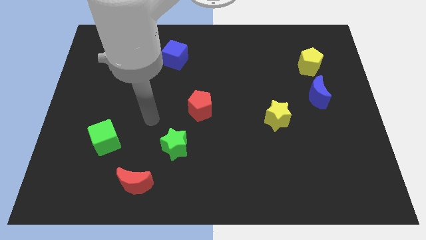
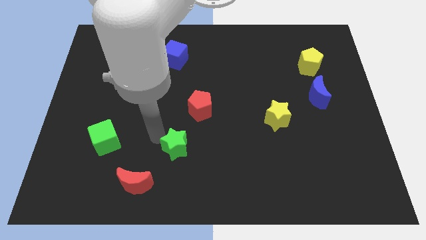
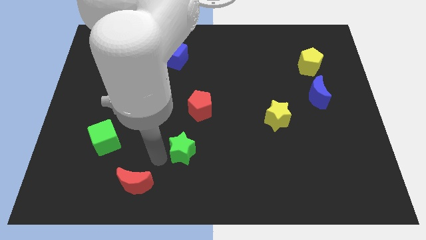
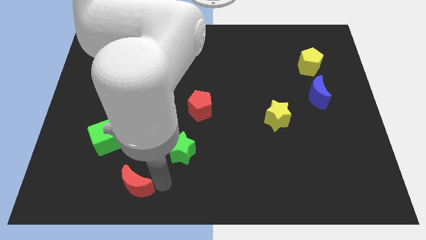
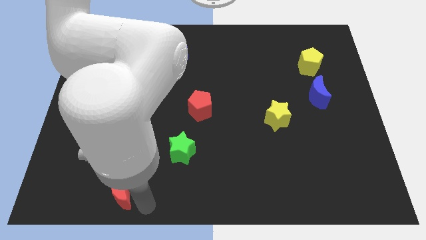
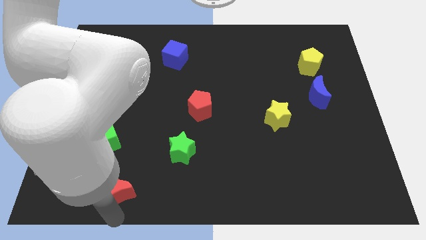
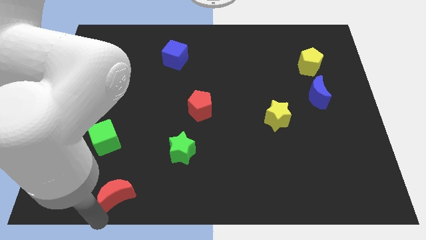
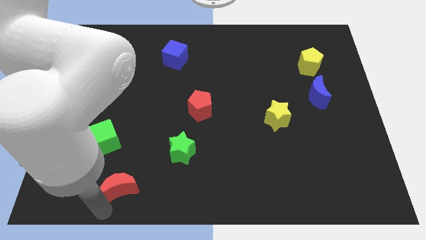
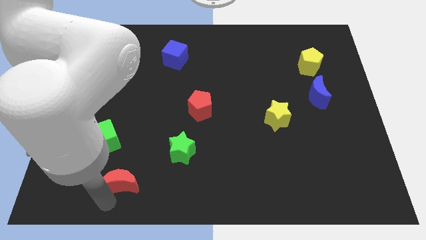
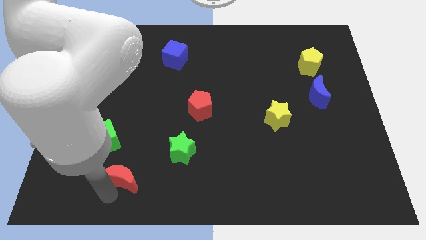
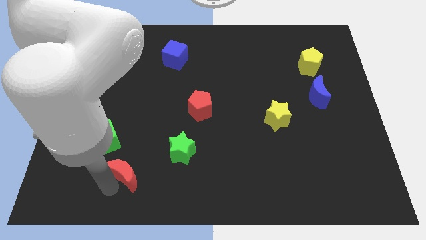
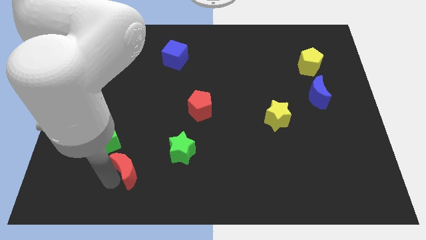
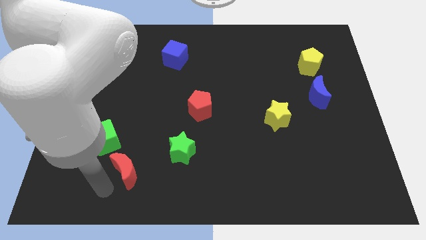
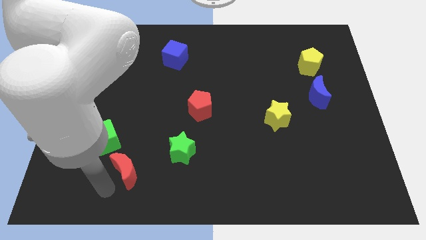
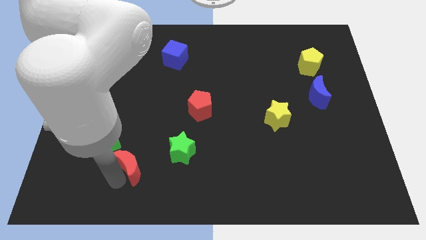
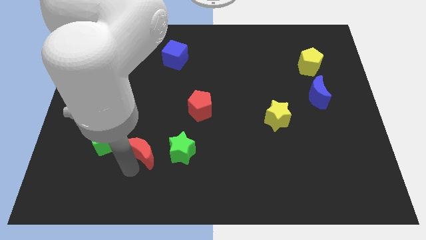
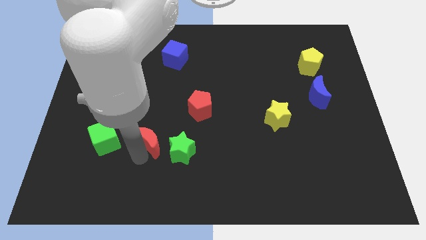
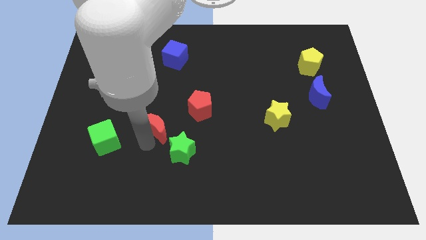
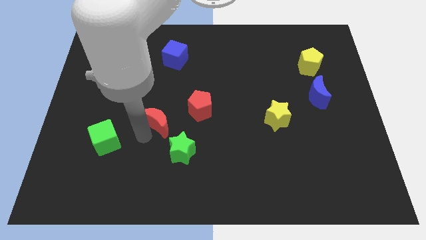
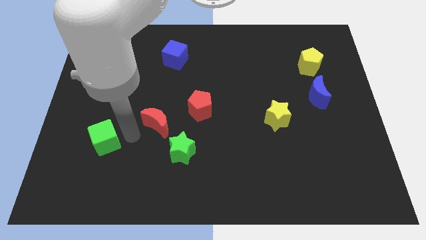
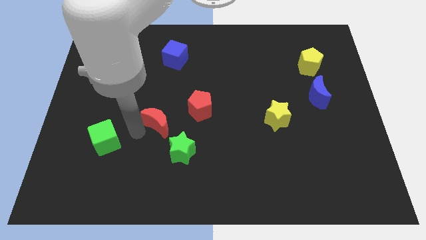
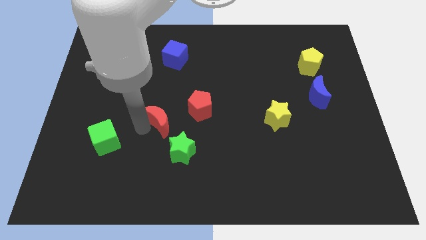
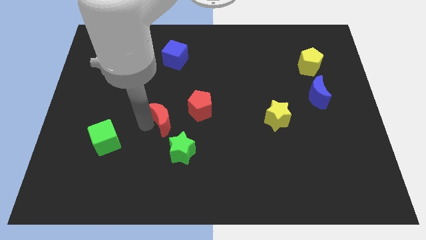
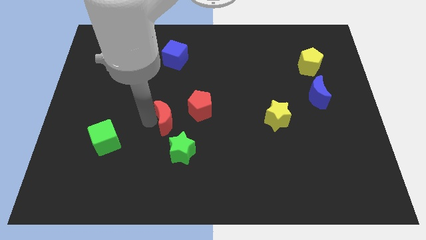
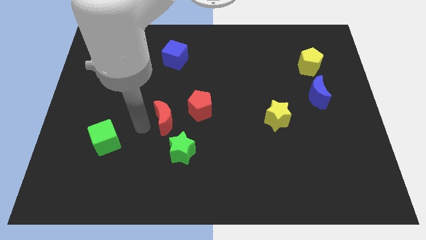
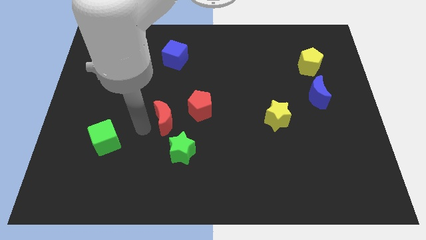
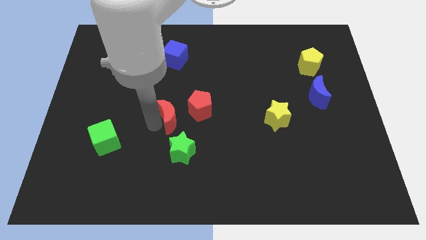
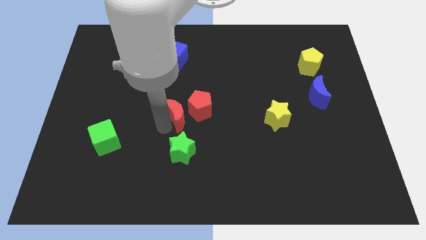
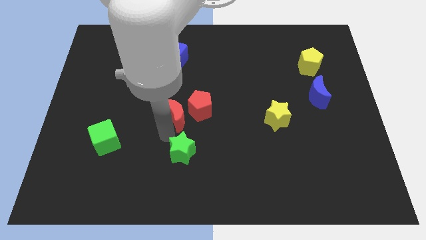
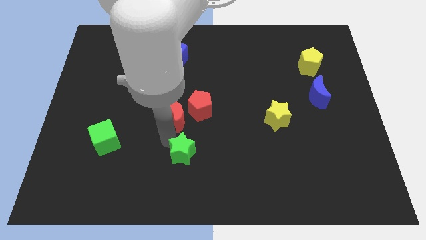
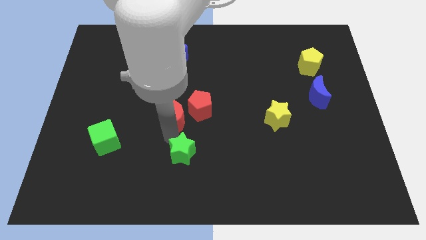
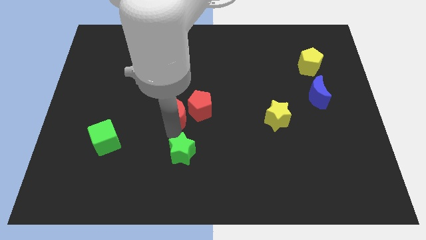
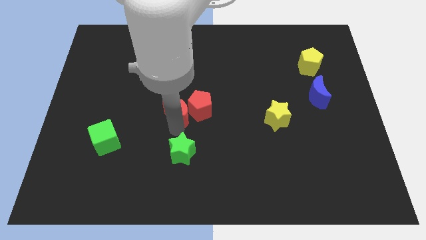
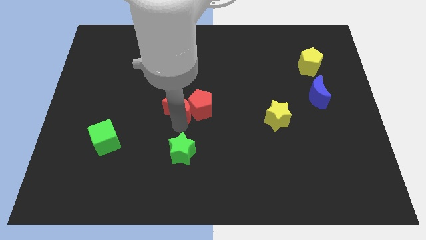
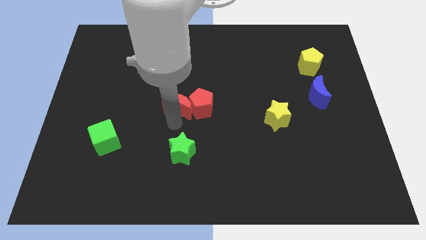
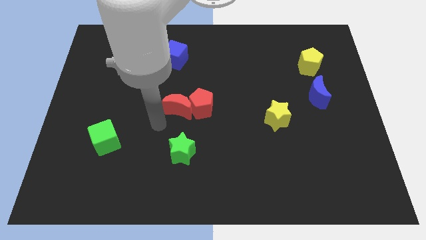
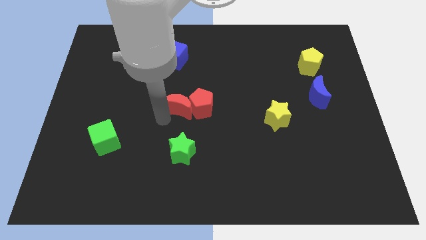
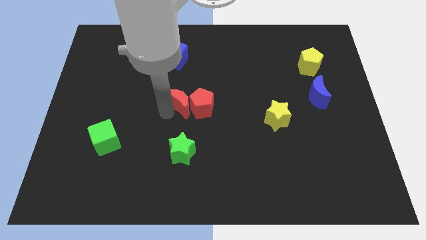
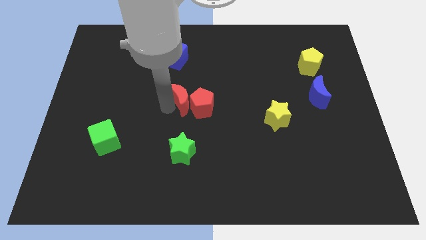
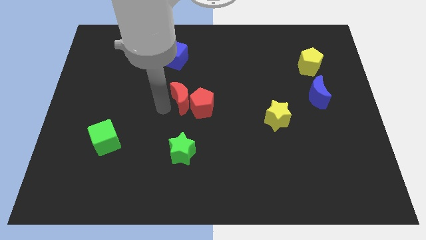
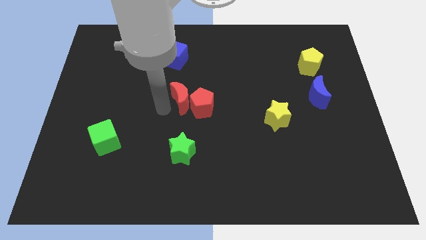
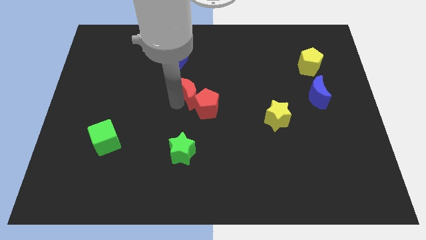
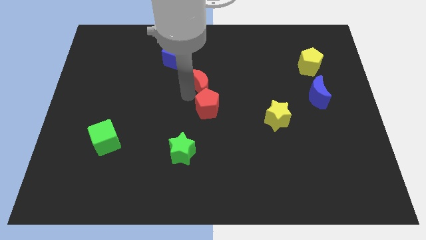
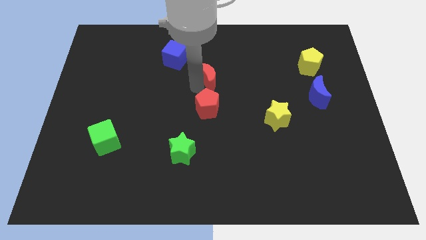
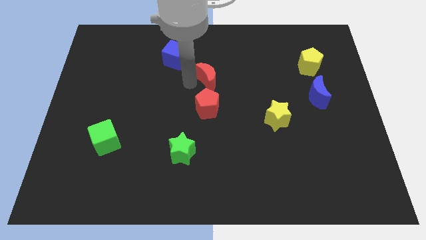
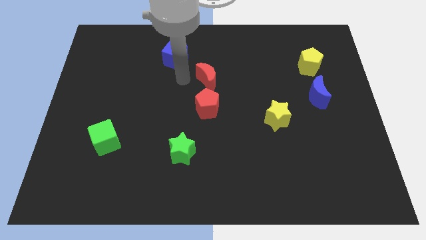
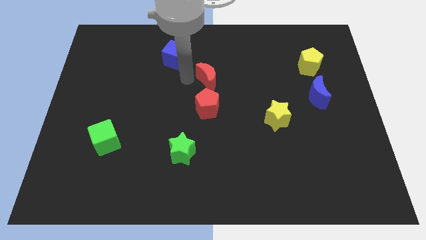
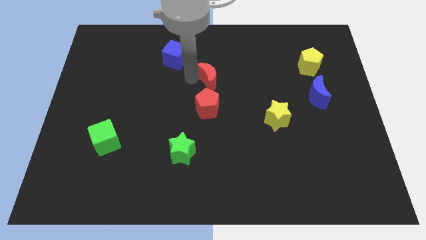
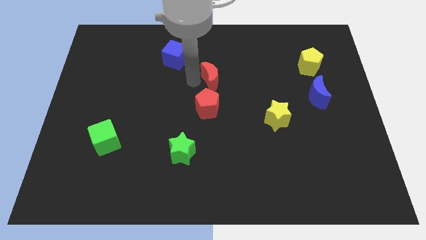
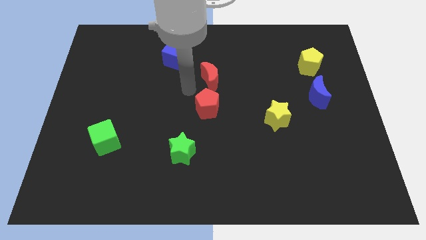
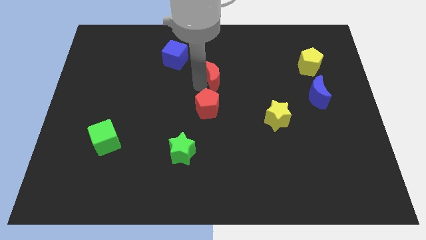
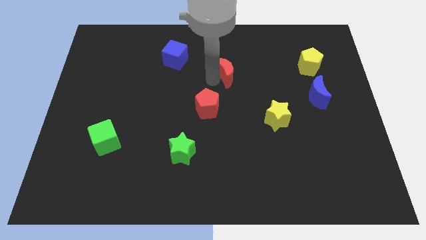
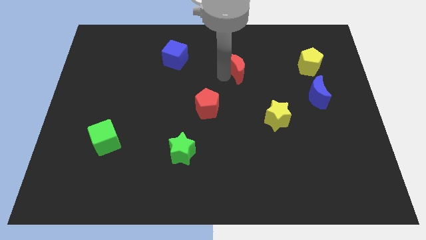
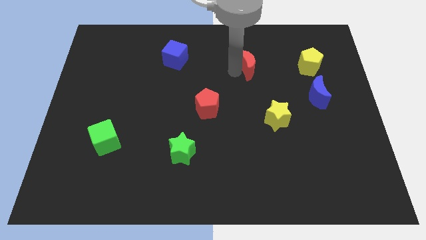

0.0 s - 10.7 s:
slide the red moon just left of the yellow pentagon

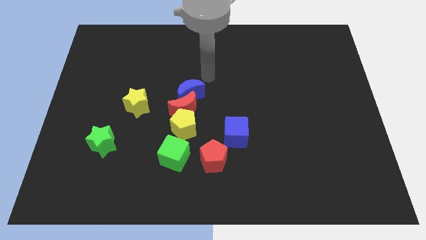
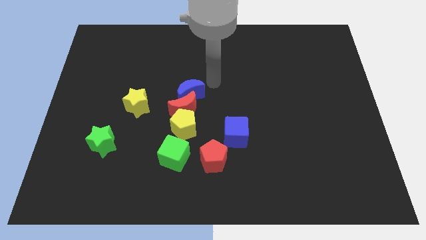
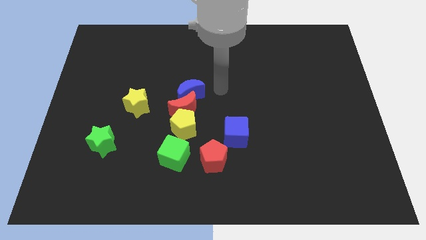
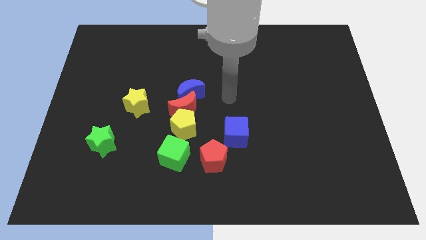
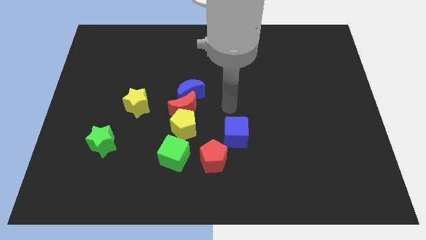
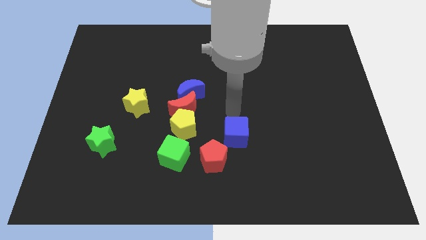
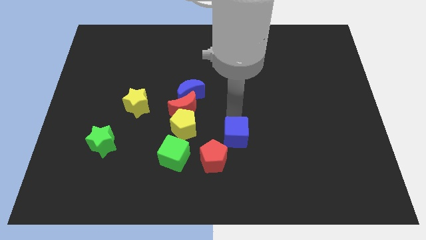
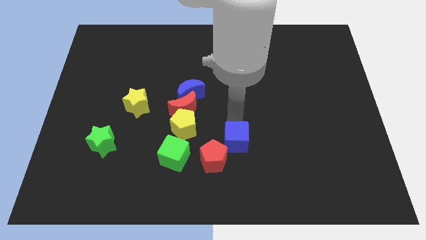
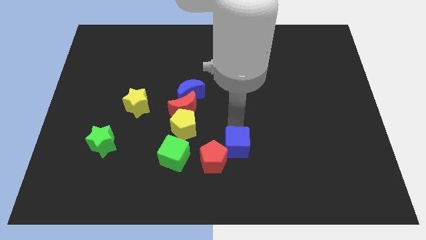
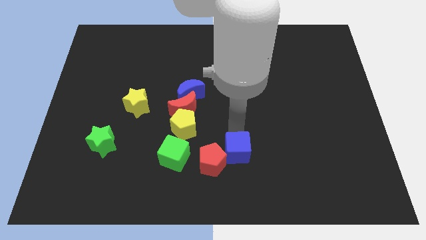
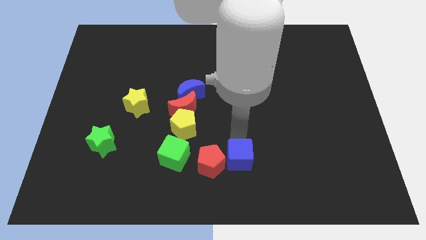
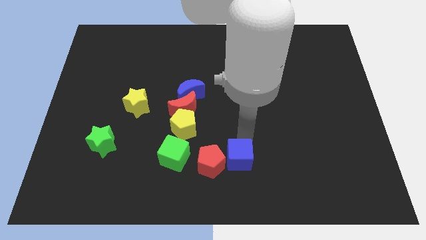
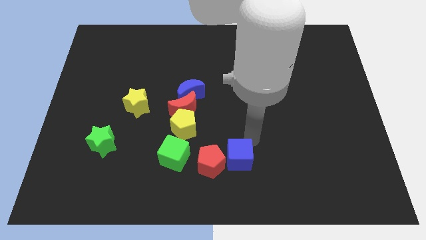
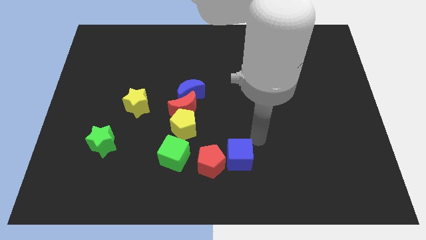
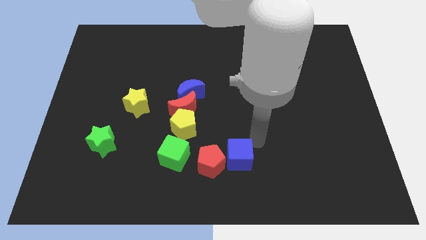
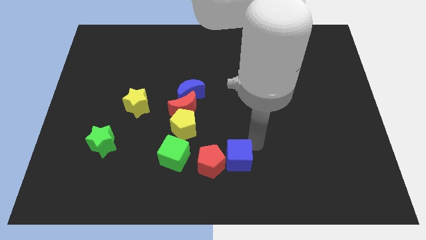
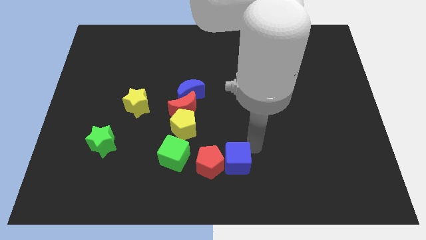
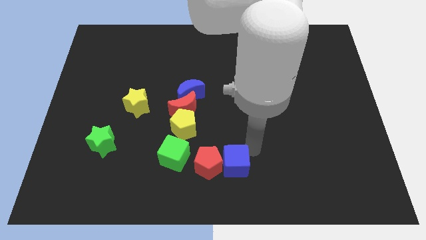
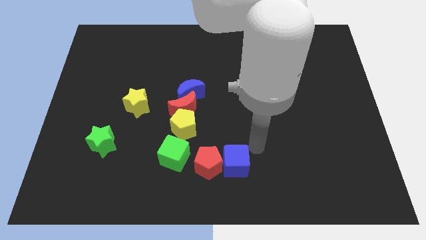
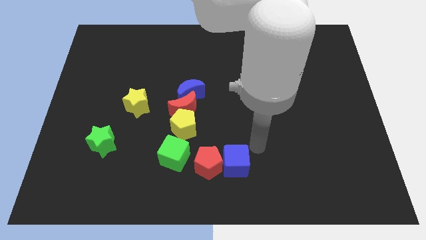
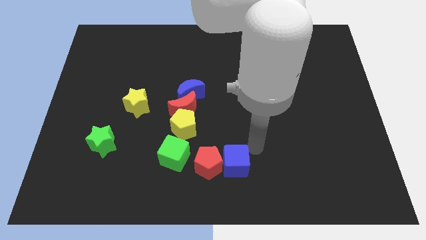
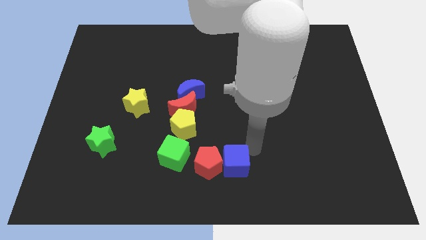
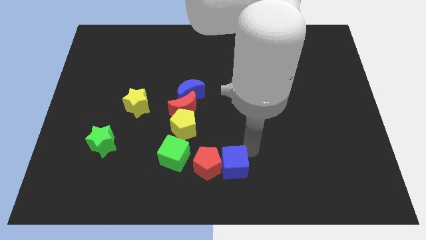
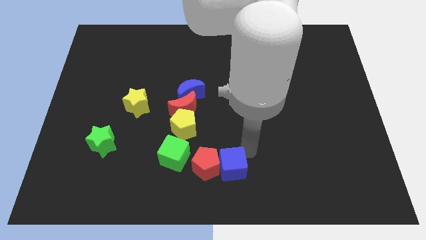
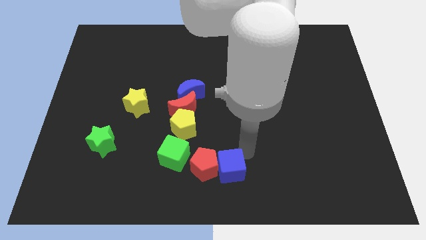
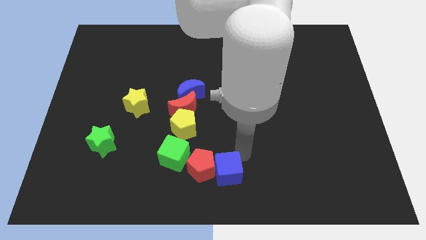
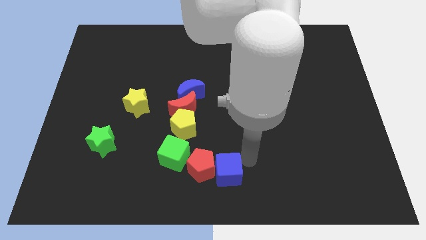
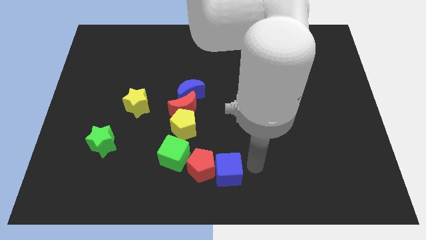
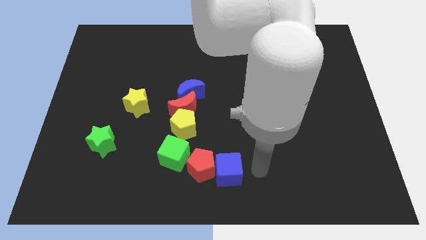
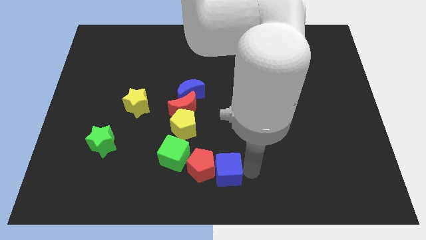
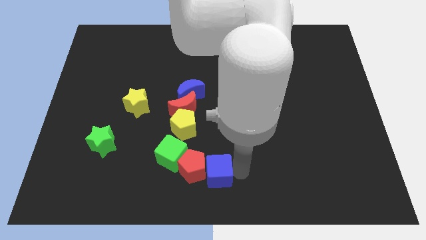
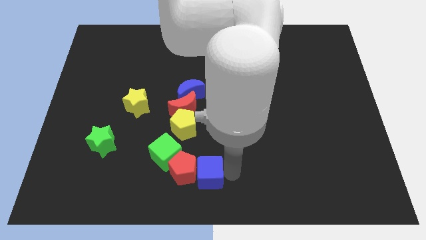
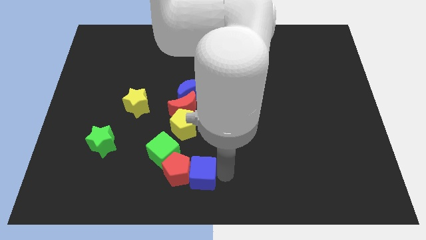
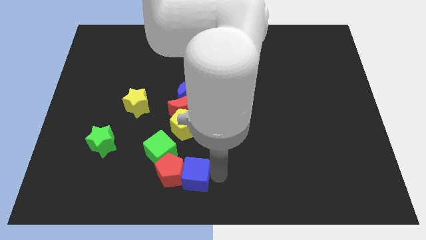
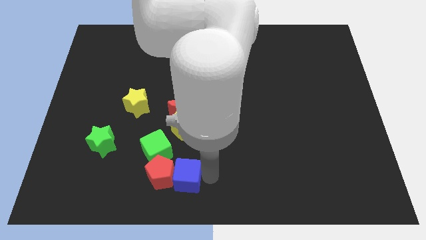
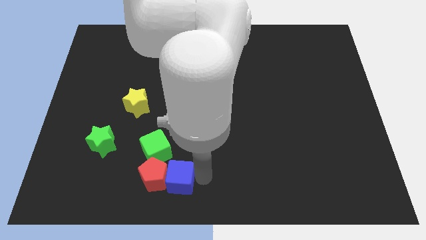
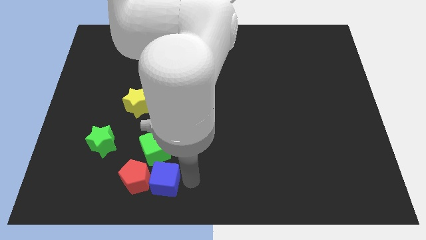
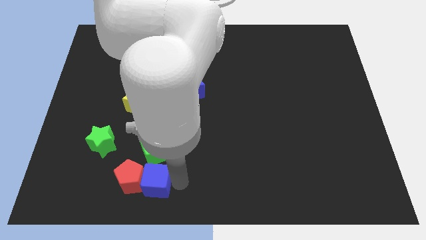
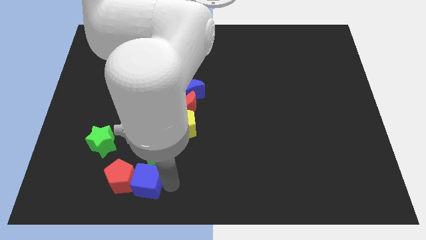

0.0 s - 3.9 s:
slide the blue cube to the bottom left of the green cube
